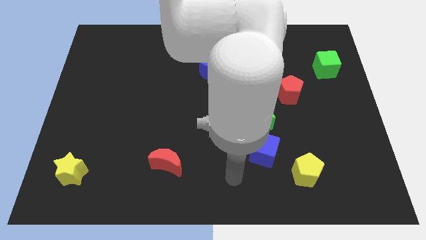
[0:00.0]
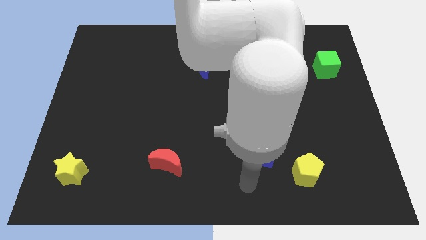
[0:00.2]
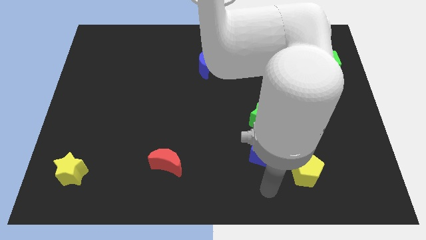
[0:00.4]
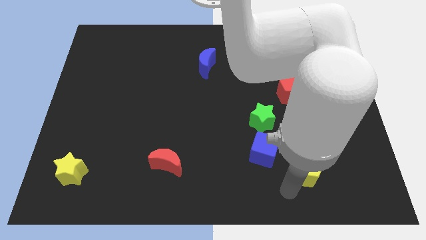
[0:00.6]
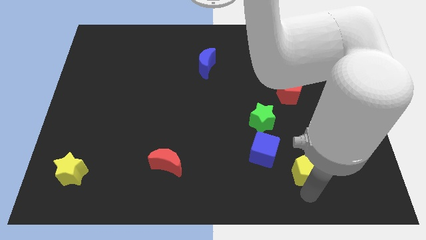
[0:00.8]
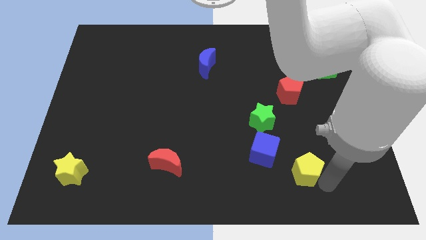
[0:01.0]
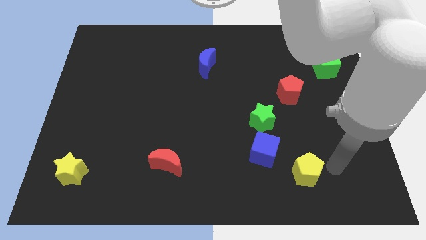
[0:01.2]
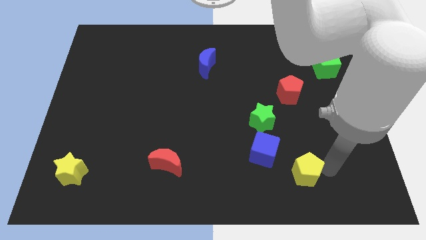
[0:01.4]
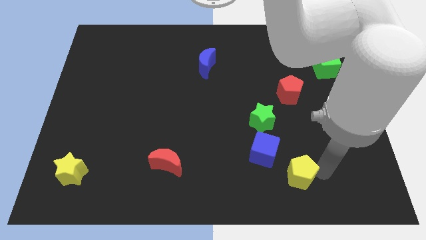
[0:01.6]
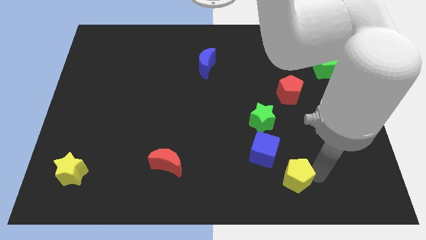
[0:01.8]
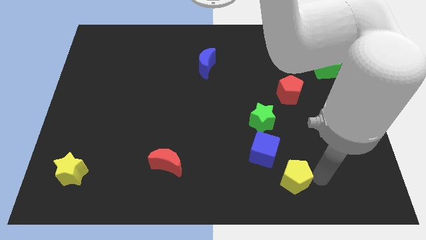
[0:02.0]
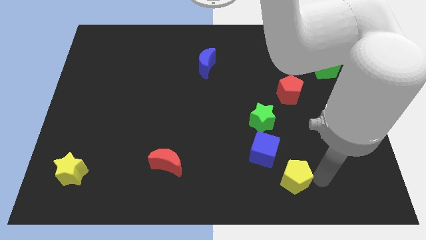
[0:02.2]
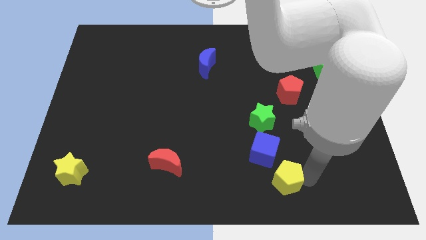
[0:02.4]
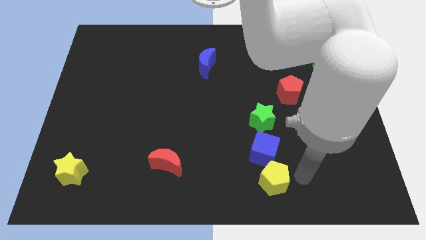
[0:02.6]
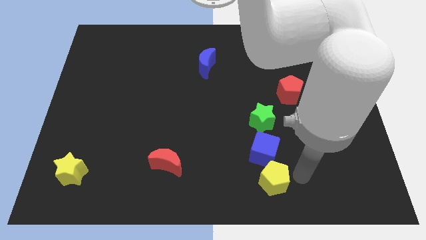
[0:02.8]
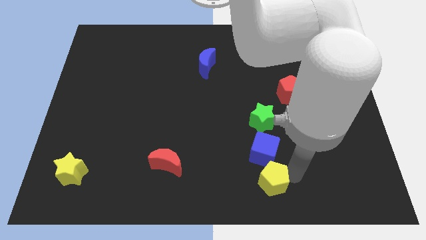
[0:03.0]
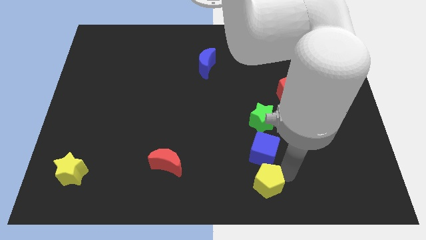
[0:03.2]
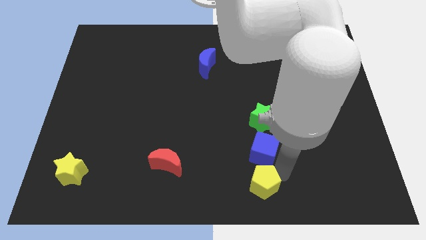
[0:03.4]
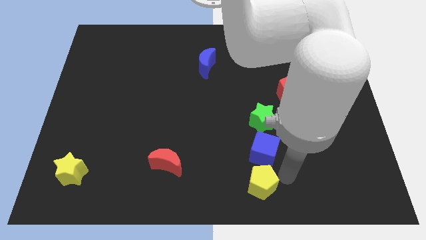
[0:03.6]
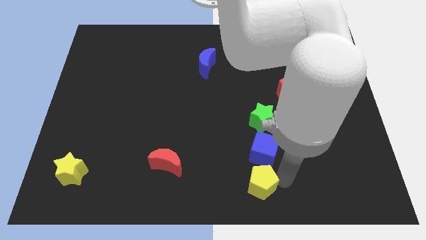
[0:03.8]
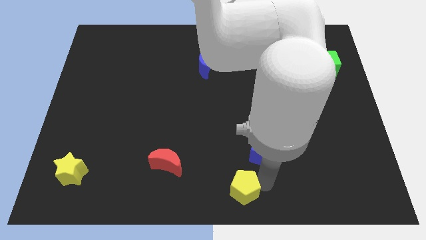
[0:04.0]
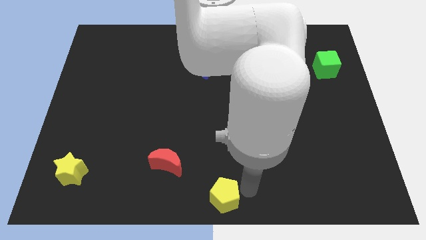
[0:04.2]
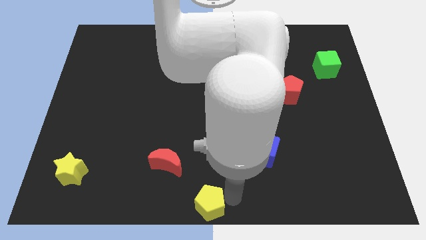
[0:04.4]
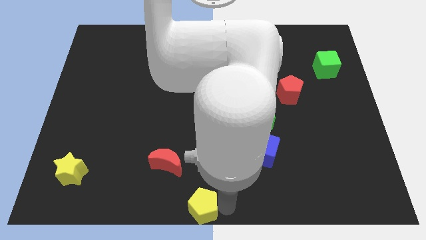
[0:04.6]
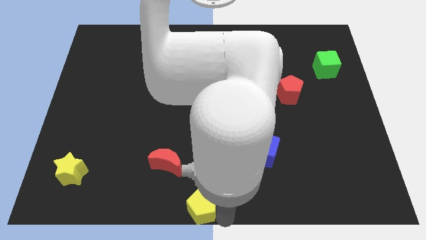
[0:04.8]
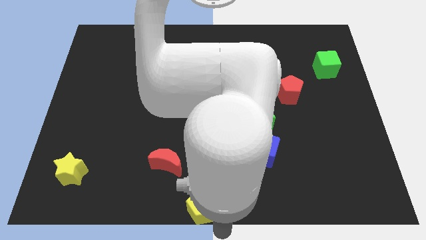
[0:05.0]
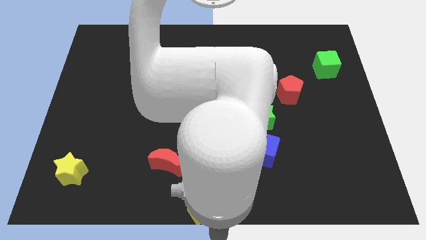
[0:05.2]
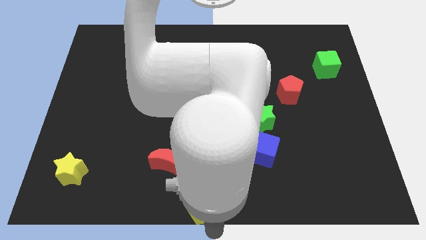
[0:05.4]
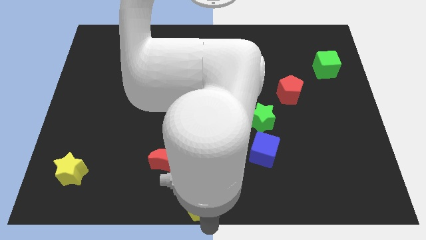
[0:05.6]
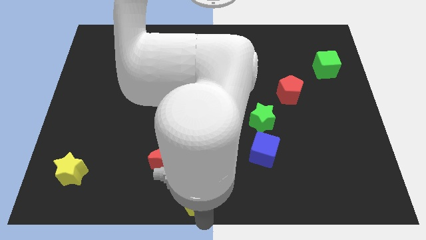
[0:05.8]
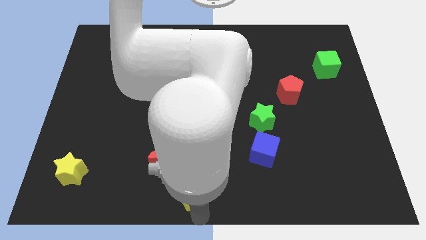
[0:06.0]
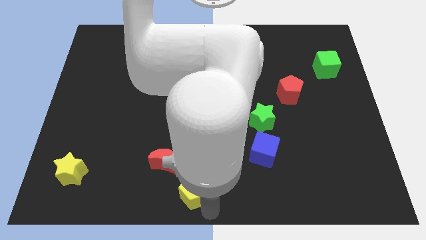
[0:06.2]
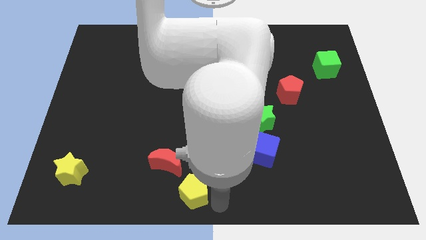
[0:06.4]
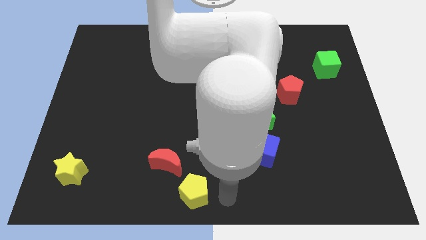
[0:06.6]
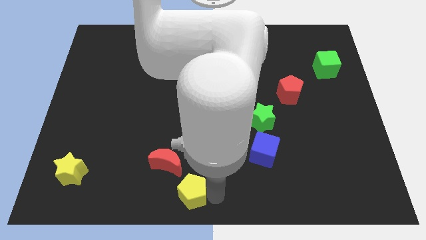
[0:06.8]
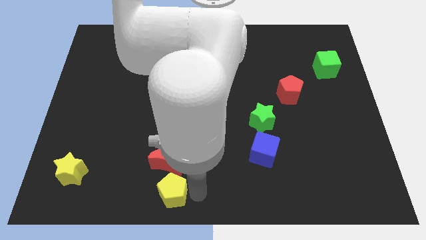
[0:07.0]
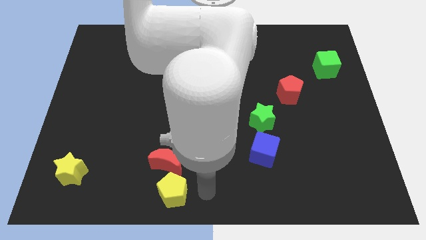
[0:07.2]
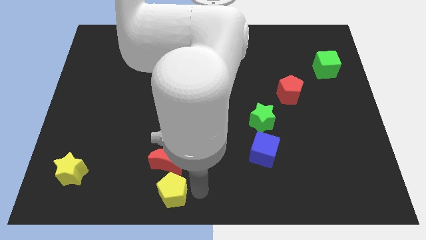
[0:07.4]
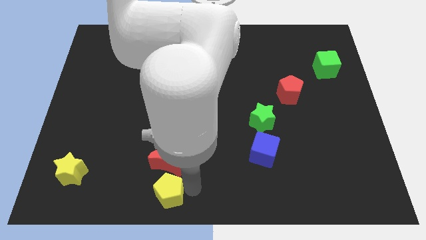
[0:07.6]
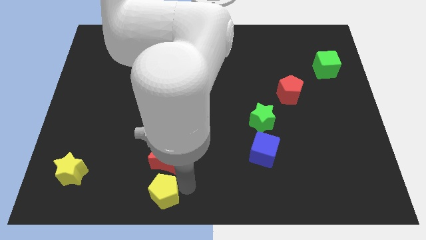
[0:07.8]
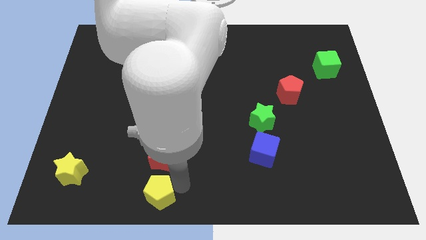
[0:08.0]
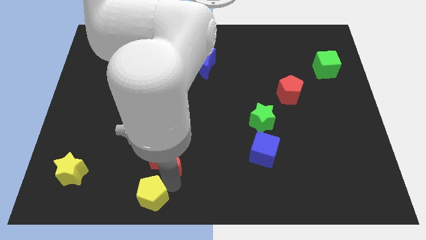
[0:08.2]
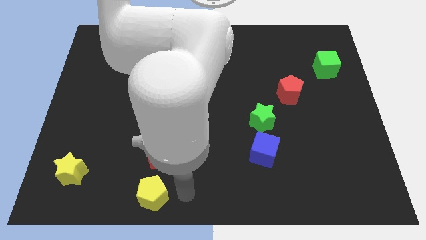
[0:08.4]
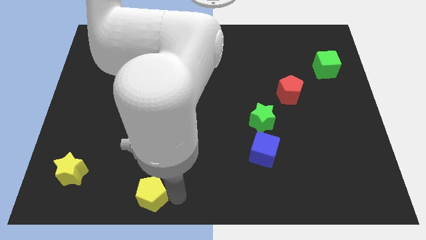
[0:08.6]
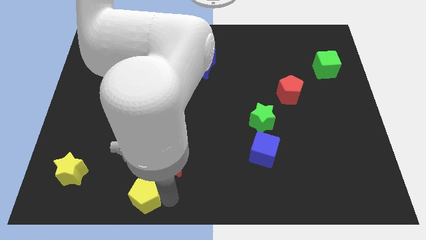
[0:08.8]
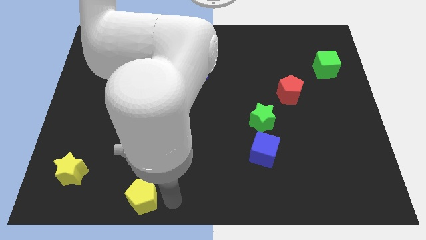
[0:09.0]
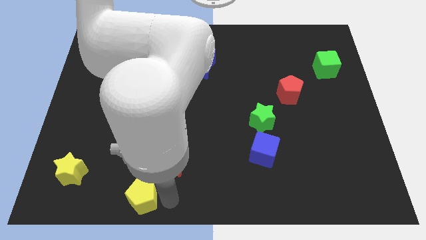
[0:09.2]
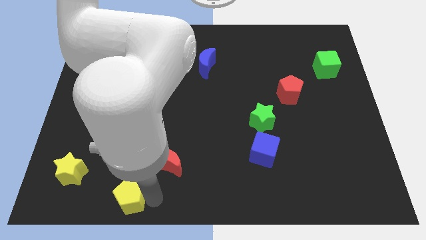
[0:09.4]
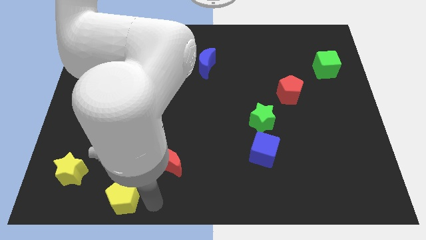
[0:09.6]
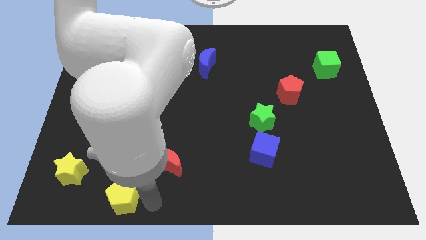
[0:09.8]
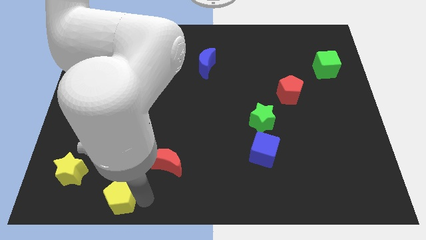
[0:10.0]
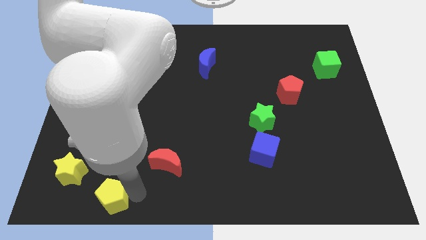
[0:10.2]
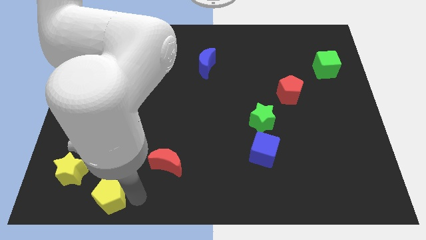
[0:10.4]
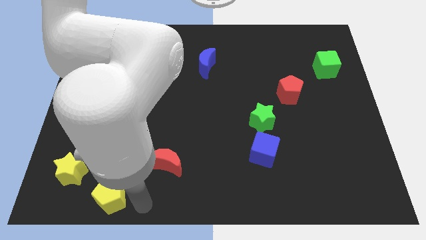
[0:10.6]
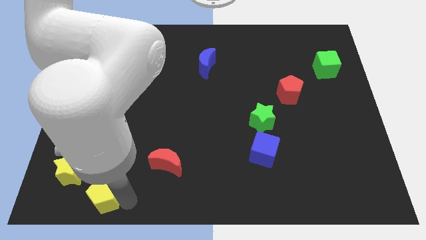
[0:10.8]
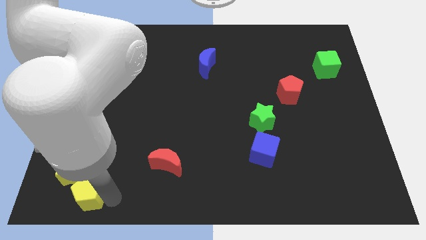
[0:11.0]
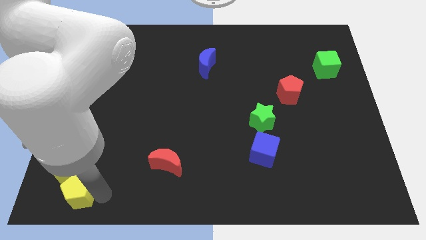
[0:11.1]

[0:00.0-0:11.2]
push the yellow pentagon to the bottom left
